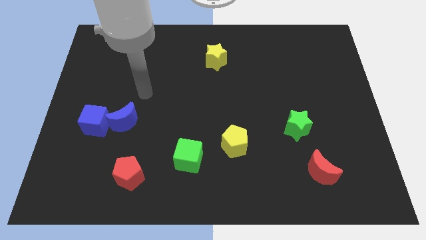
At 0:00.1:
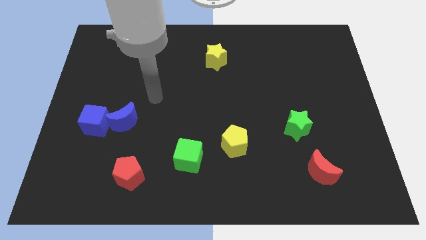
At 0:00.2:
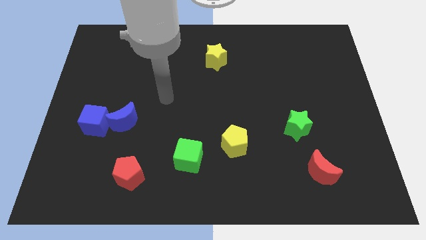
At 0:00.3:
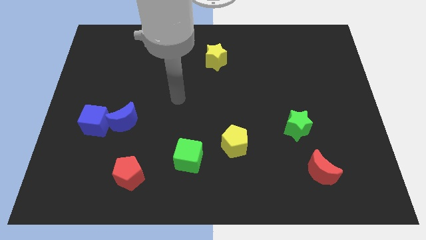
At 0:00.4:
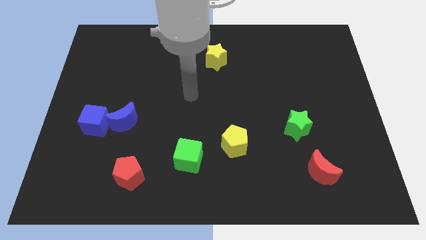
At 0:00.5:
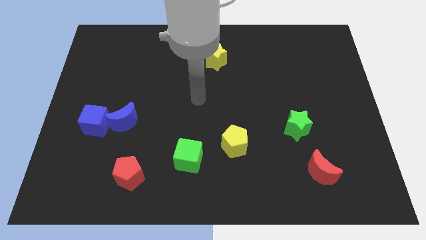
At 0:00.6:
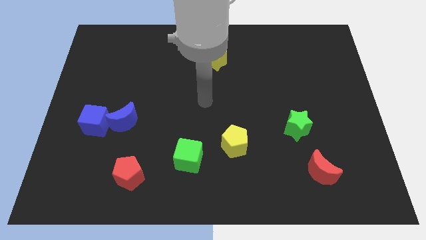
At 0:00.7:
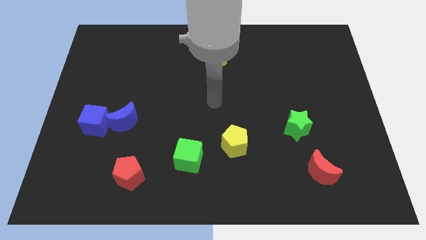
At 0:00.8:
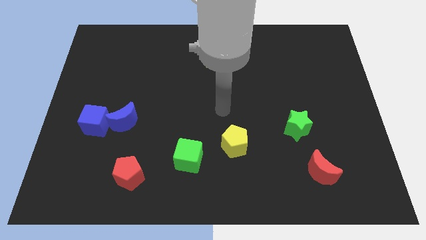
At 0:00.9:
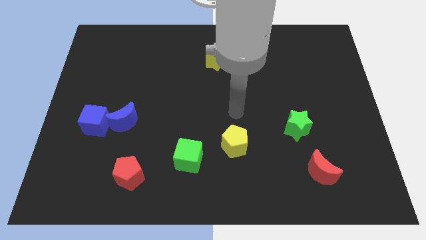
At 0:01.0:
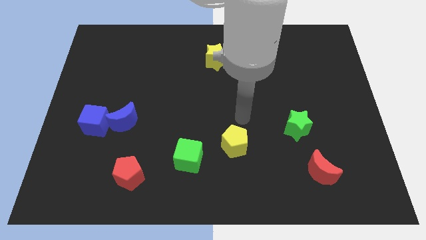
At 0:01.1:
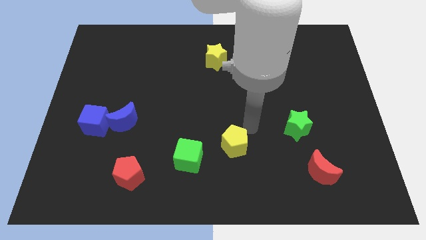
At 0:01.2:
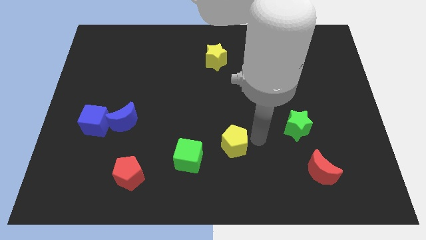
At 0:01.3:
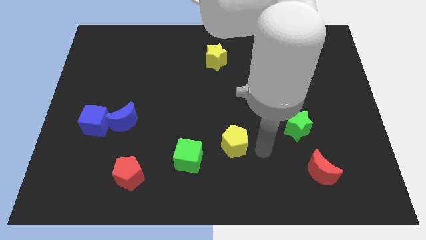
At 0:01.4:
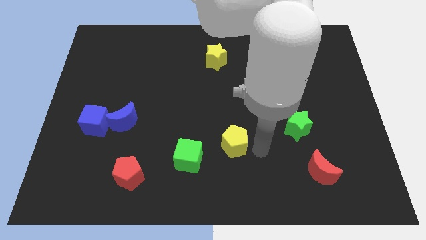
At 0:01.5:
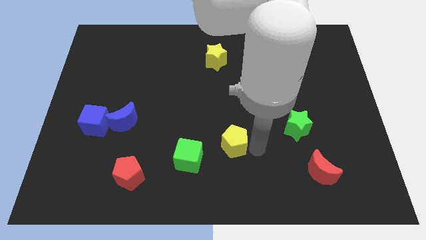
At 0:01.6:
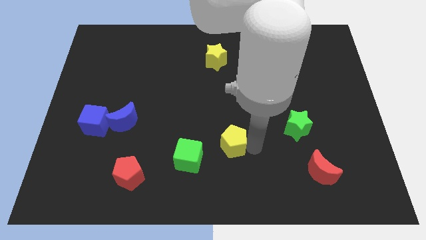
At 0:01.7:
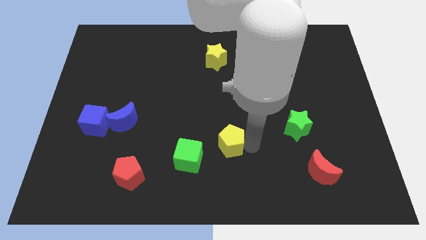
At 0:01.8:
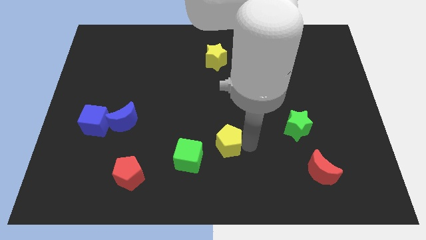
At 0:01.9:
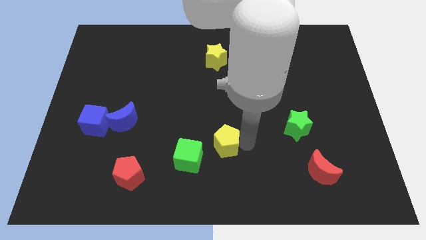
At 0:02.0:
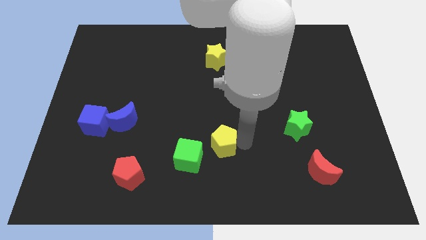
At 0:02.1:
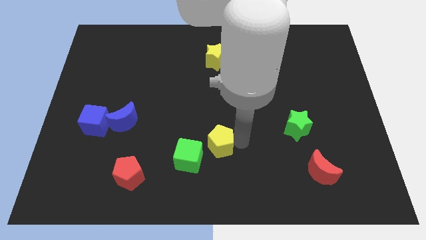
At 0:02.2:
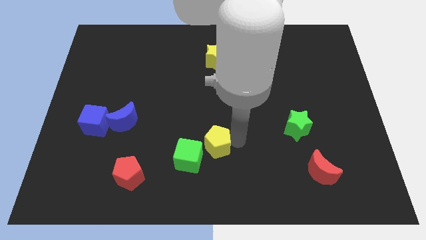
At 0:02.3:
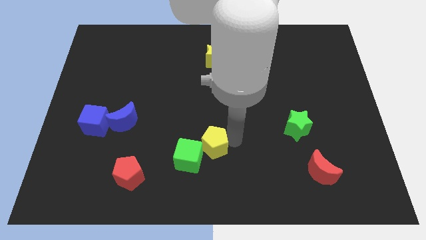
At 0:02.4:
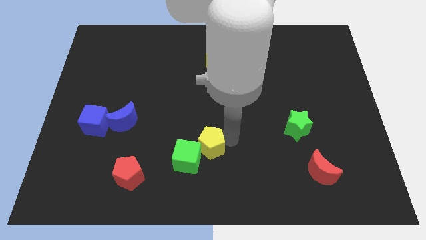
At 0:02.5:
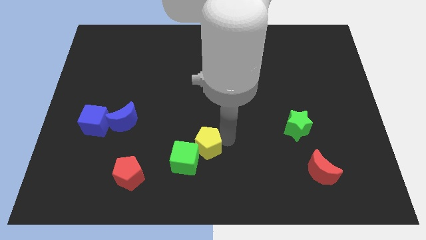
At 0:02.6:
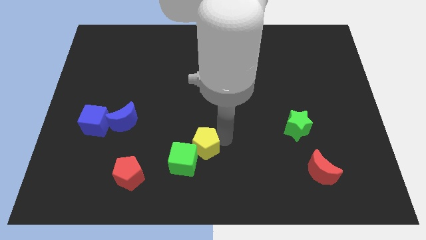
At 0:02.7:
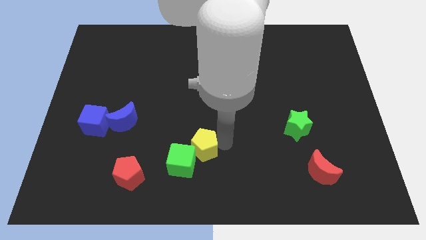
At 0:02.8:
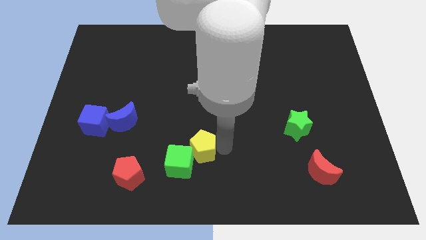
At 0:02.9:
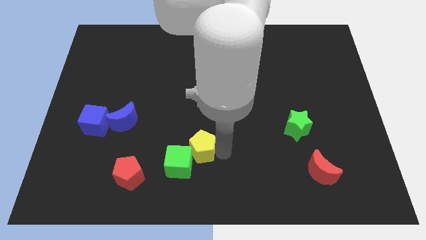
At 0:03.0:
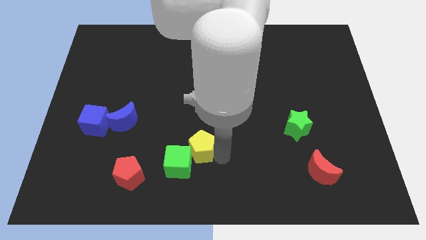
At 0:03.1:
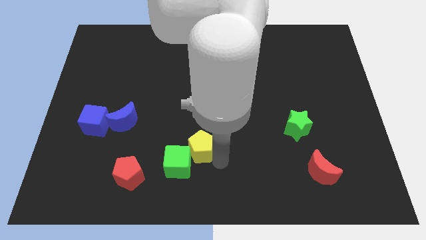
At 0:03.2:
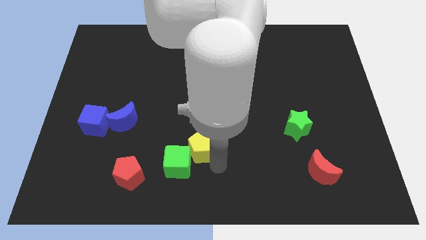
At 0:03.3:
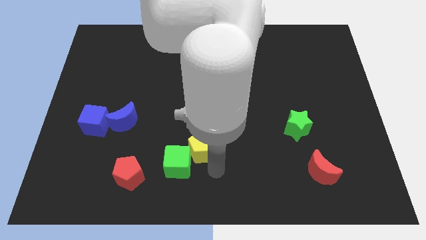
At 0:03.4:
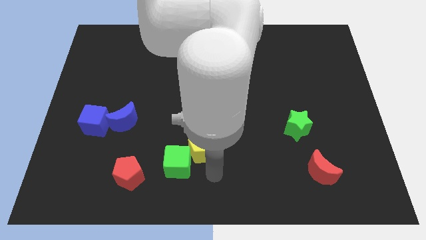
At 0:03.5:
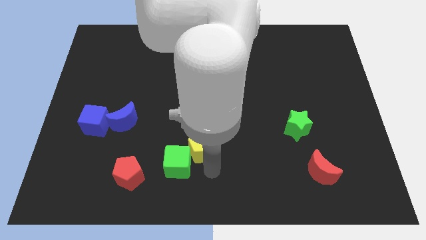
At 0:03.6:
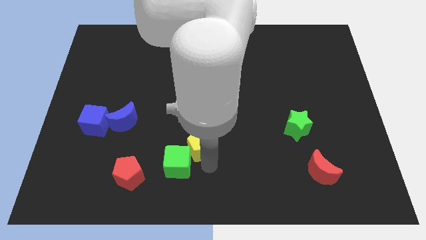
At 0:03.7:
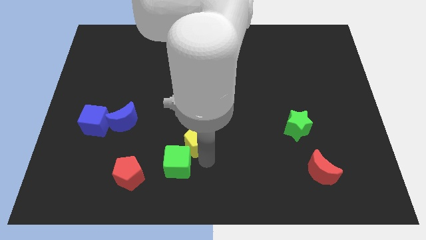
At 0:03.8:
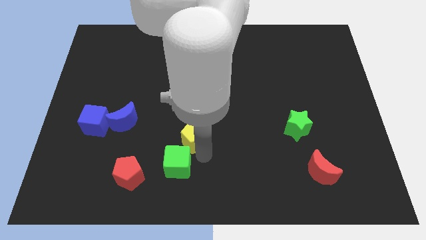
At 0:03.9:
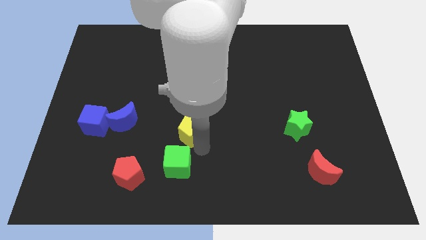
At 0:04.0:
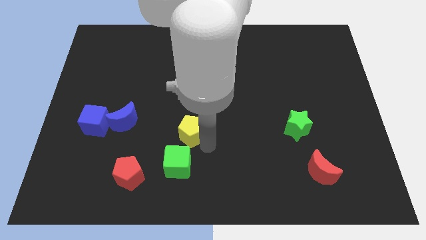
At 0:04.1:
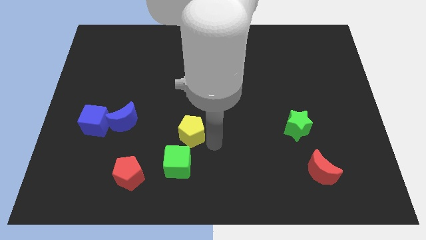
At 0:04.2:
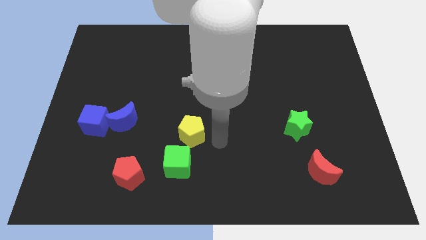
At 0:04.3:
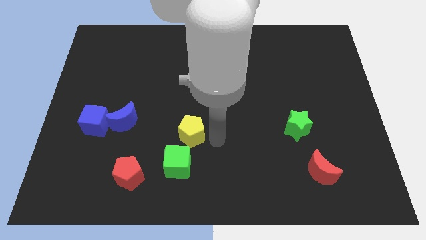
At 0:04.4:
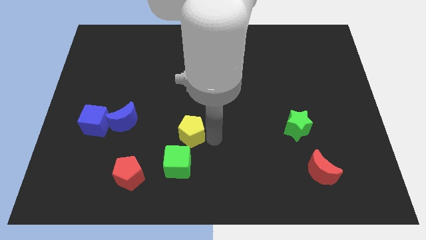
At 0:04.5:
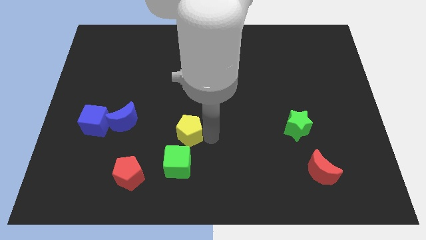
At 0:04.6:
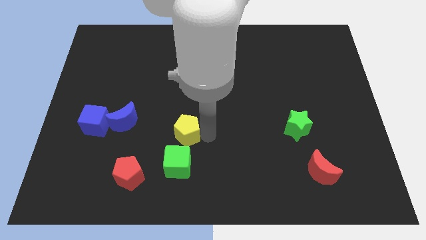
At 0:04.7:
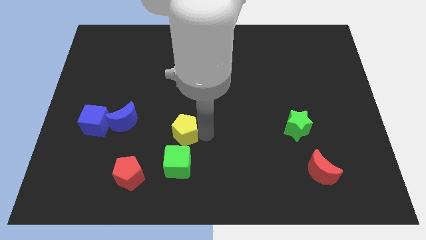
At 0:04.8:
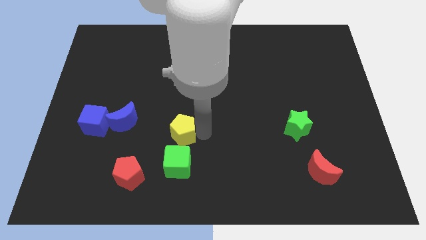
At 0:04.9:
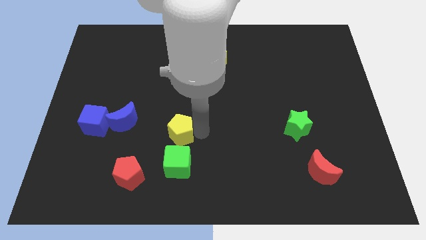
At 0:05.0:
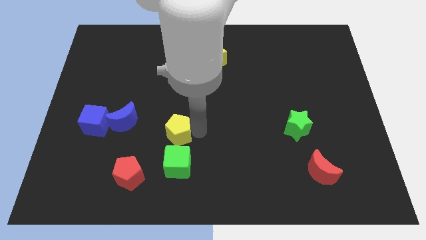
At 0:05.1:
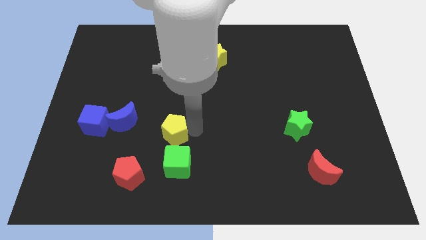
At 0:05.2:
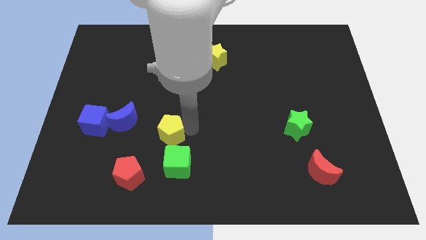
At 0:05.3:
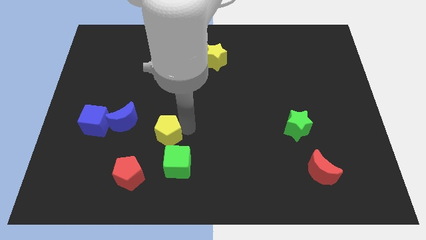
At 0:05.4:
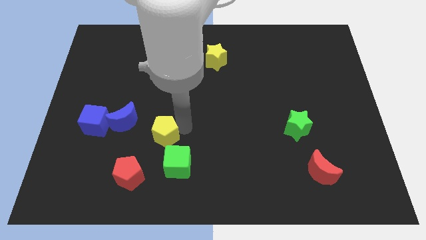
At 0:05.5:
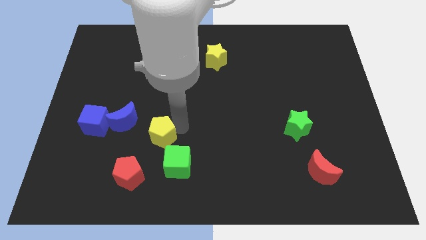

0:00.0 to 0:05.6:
push the yellow pentagon just right of the blue cube

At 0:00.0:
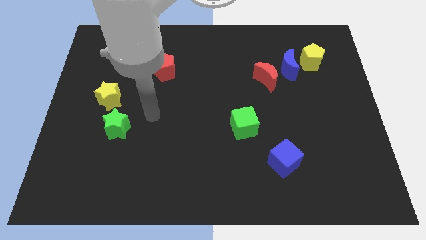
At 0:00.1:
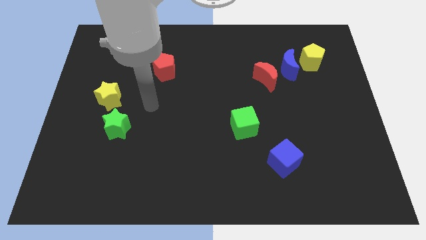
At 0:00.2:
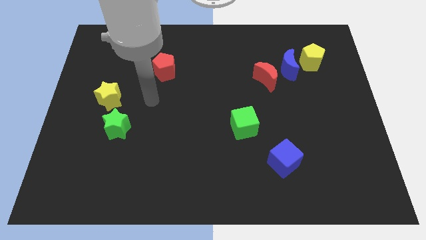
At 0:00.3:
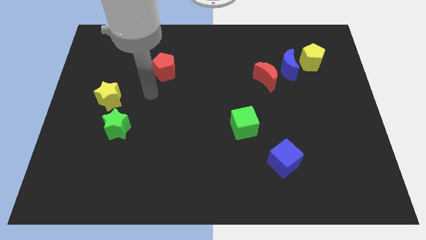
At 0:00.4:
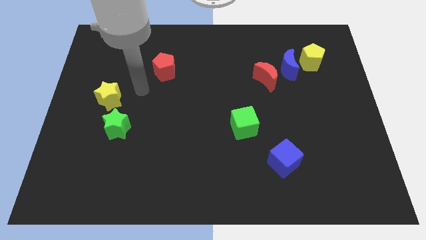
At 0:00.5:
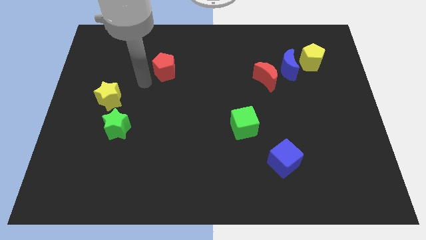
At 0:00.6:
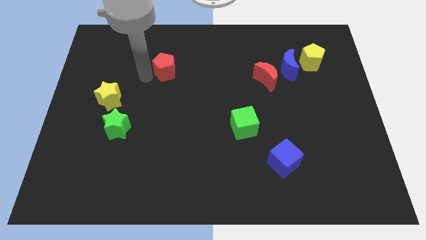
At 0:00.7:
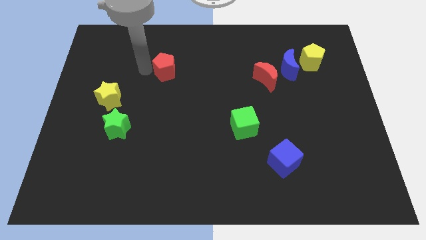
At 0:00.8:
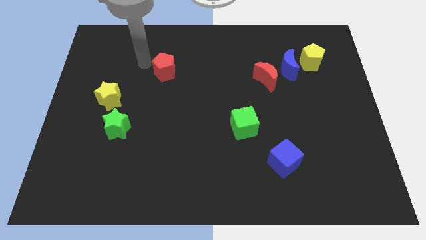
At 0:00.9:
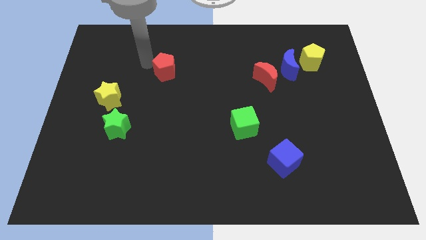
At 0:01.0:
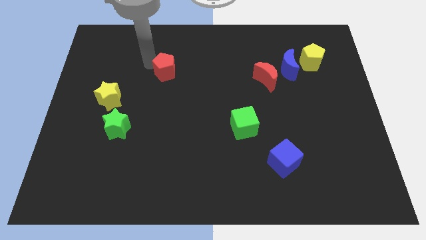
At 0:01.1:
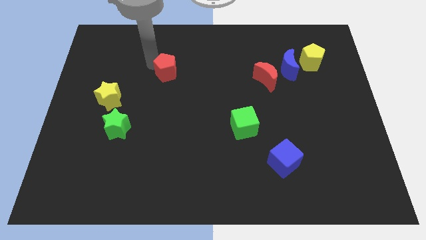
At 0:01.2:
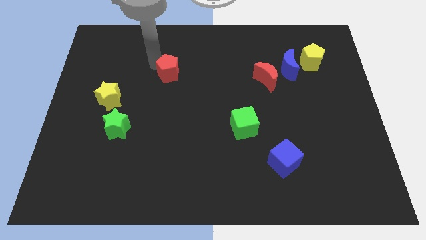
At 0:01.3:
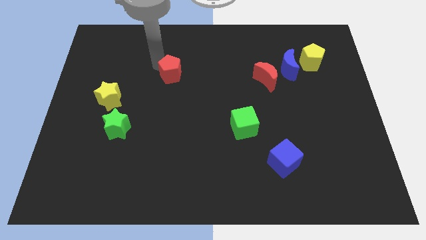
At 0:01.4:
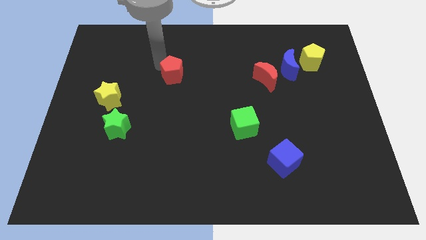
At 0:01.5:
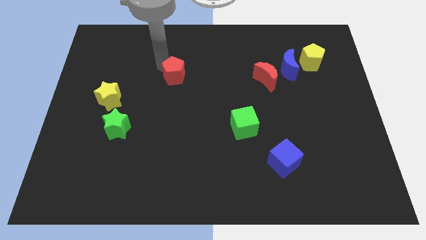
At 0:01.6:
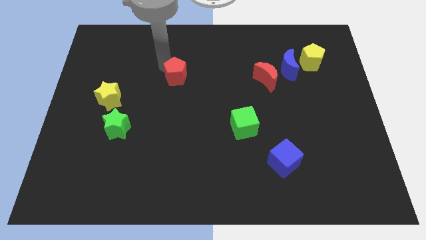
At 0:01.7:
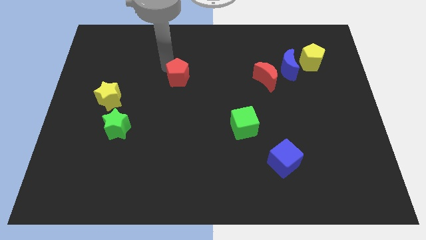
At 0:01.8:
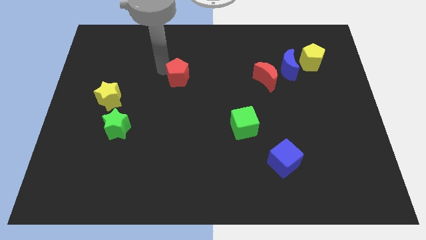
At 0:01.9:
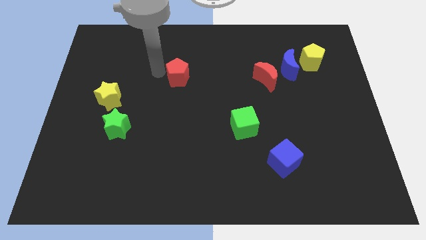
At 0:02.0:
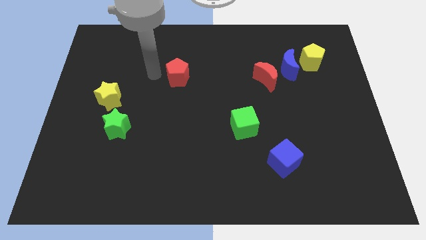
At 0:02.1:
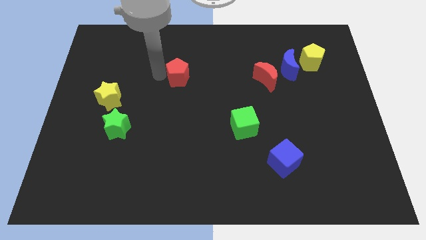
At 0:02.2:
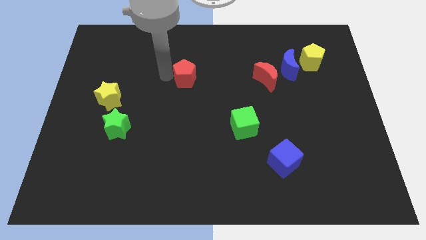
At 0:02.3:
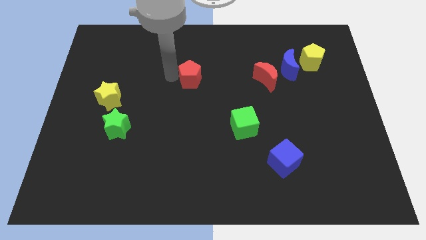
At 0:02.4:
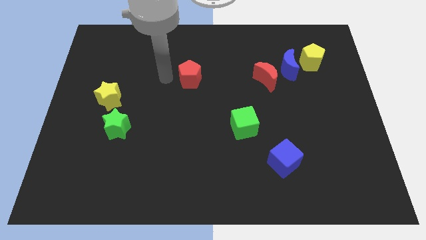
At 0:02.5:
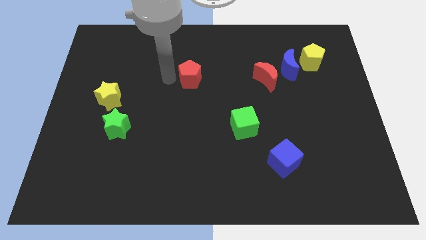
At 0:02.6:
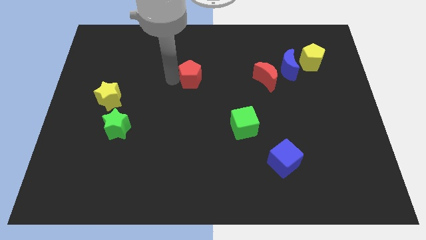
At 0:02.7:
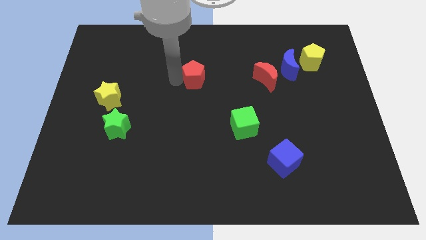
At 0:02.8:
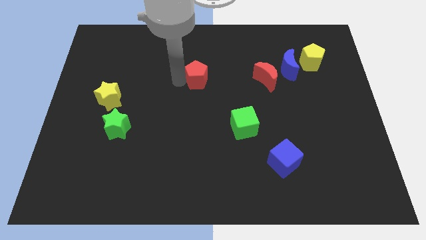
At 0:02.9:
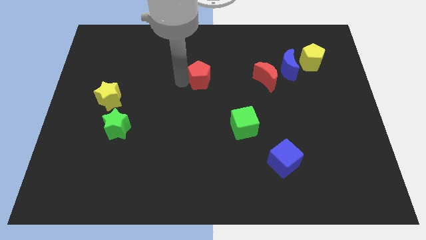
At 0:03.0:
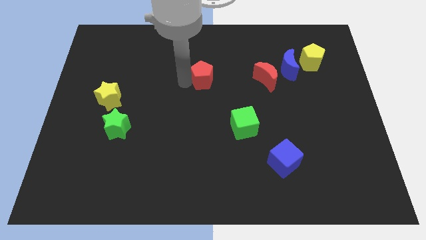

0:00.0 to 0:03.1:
slide the red pentagon to the left of the red moon
